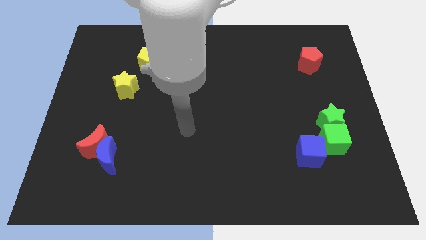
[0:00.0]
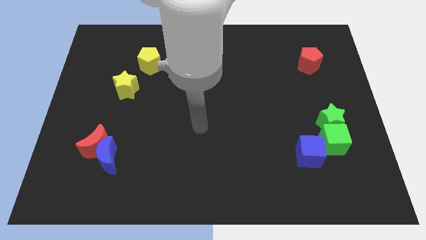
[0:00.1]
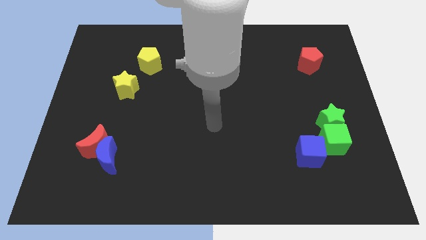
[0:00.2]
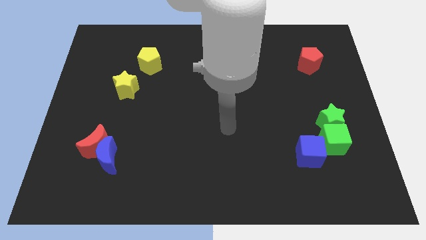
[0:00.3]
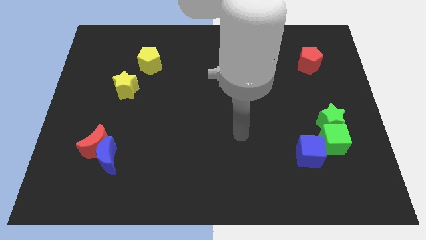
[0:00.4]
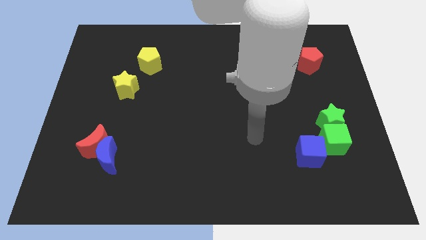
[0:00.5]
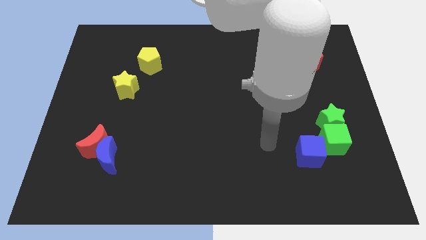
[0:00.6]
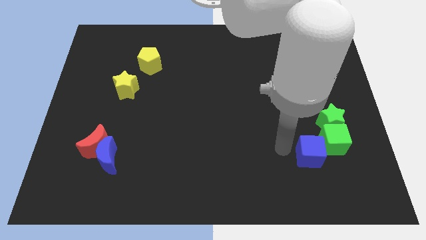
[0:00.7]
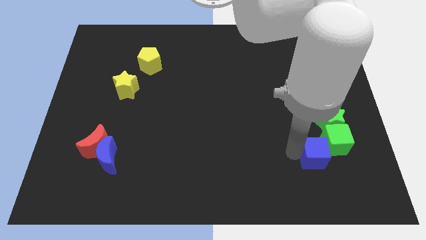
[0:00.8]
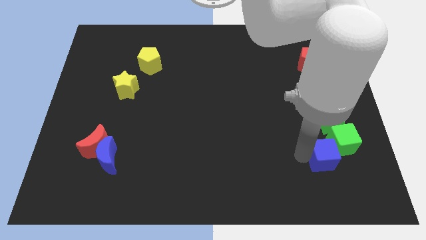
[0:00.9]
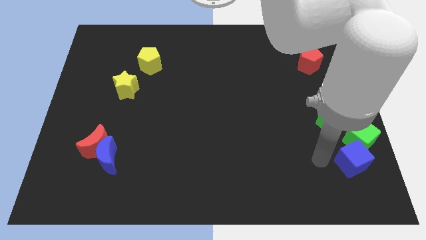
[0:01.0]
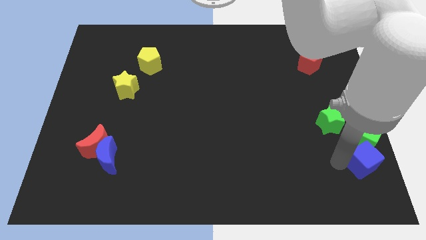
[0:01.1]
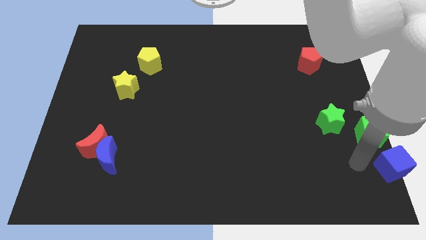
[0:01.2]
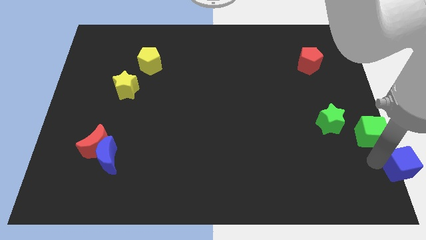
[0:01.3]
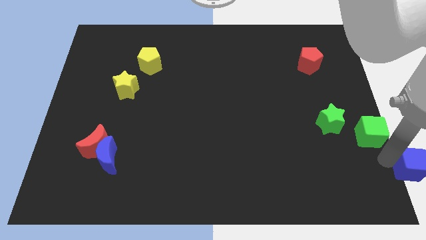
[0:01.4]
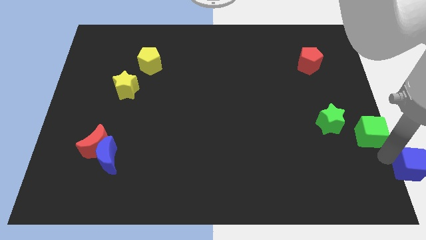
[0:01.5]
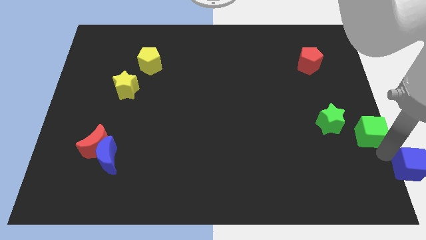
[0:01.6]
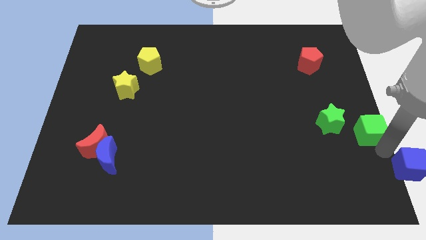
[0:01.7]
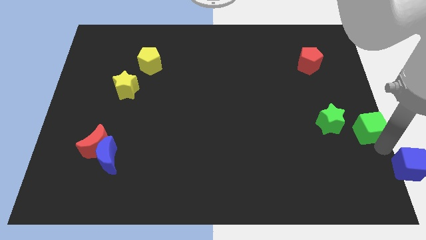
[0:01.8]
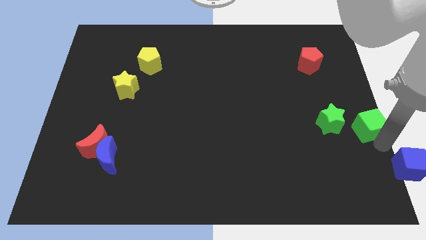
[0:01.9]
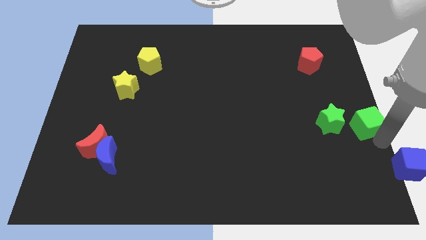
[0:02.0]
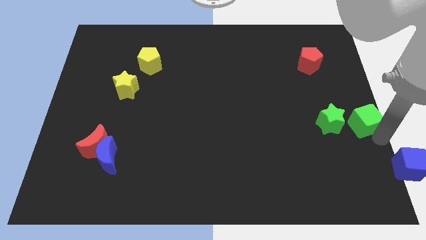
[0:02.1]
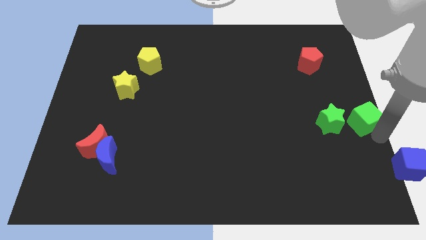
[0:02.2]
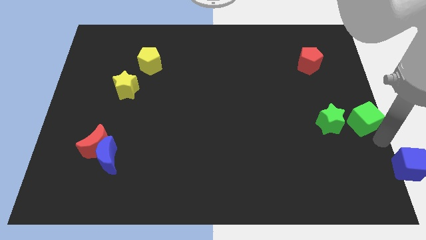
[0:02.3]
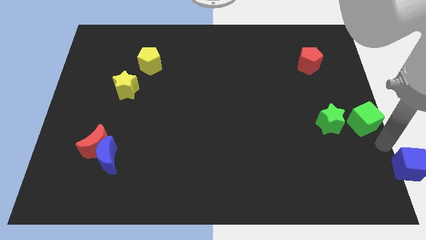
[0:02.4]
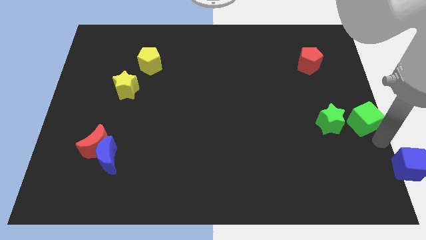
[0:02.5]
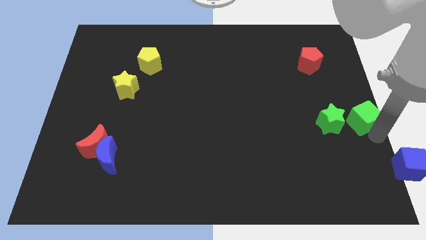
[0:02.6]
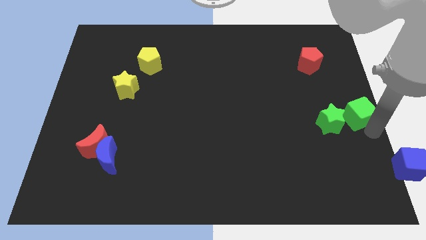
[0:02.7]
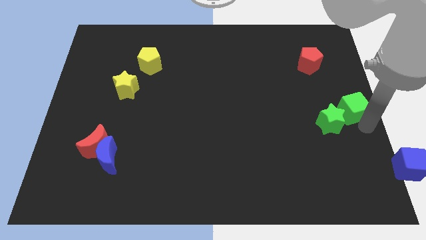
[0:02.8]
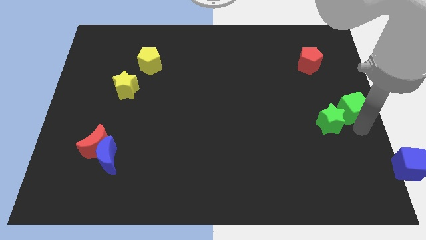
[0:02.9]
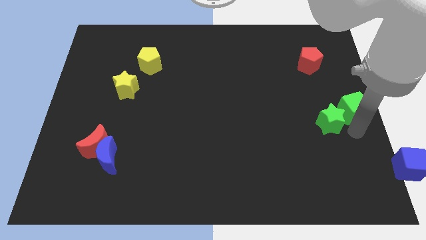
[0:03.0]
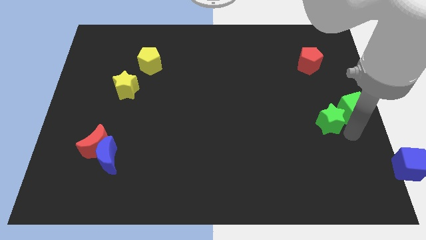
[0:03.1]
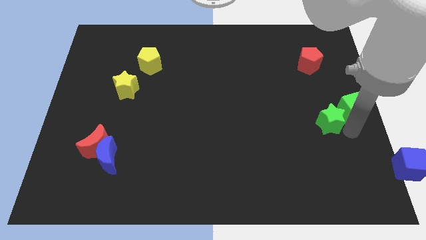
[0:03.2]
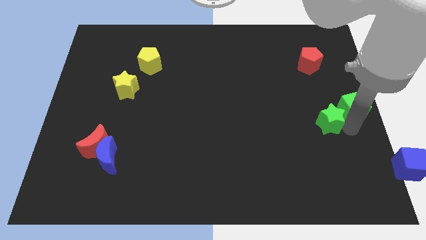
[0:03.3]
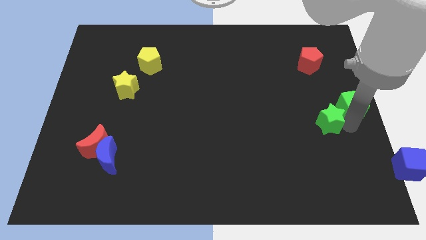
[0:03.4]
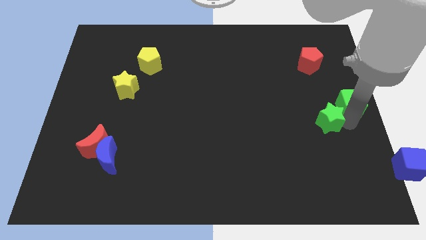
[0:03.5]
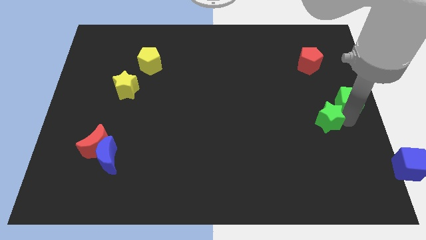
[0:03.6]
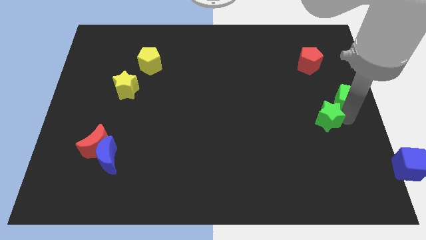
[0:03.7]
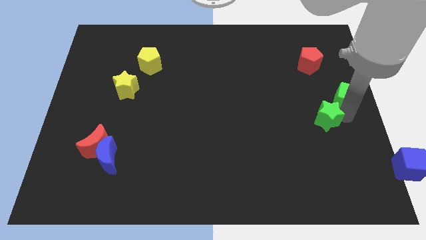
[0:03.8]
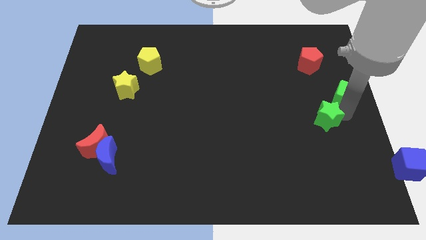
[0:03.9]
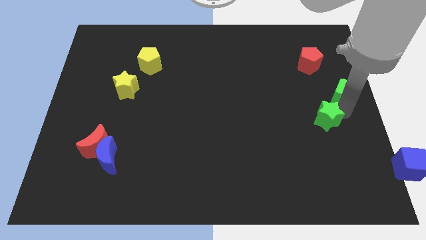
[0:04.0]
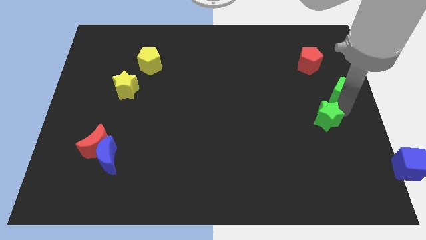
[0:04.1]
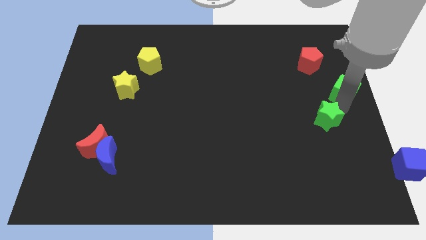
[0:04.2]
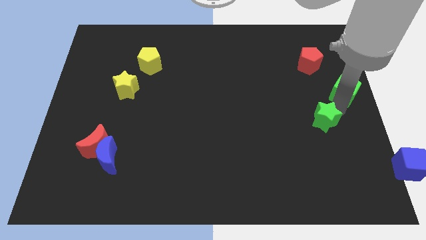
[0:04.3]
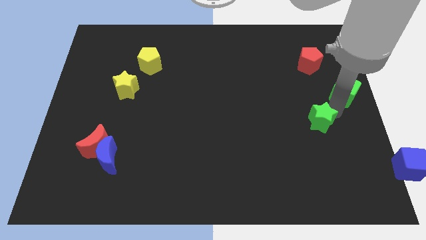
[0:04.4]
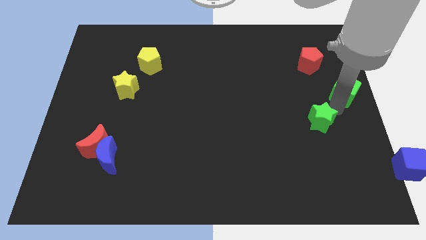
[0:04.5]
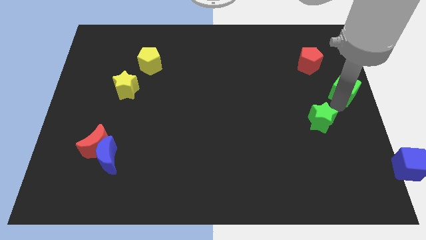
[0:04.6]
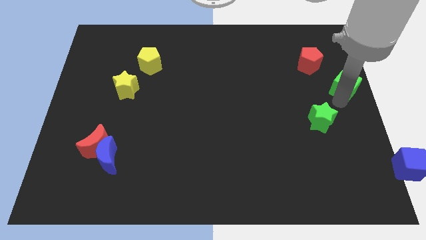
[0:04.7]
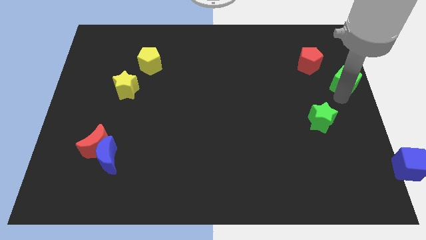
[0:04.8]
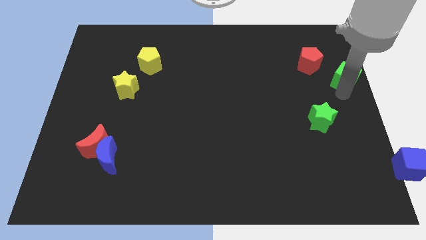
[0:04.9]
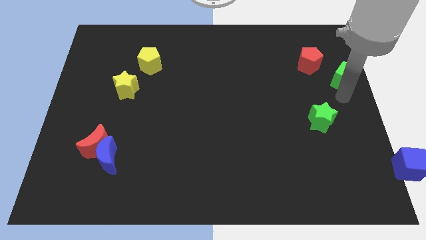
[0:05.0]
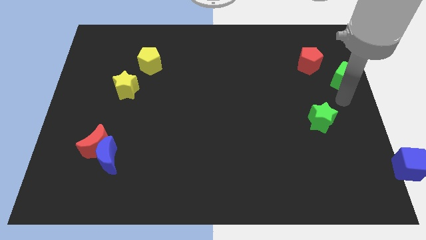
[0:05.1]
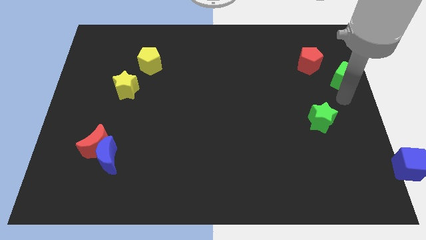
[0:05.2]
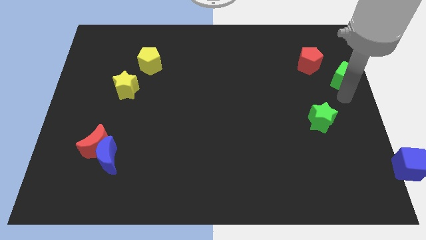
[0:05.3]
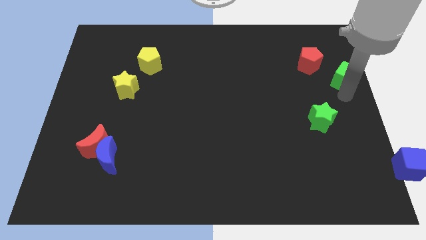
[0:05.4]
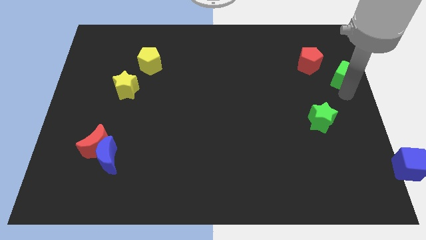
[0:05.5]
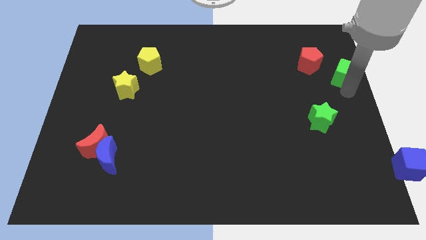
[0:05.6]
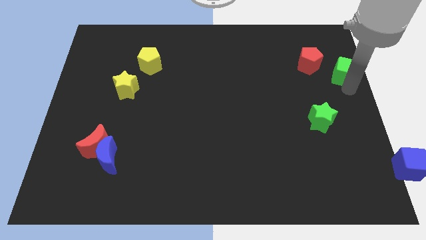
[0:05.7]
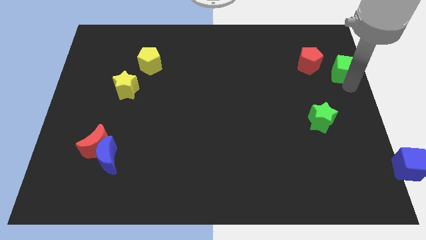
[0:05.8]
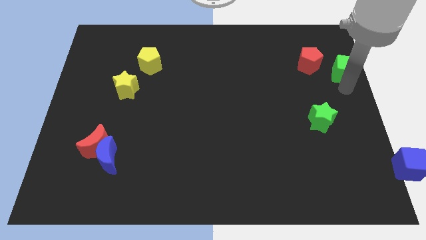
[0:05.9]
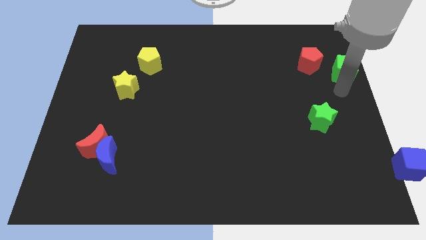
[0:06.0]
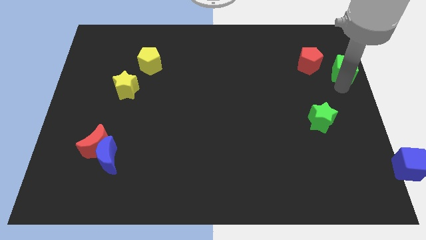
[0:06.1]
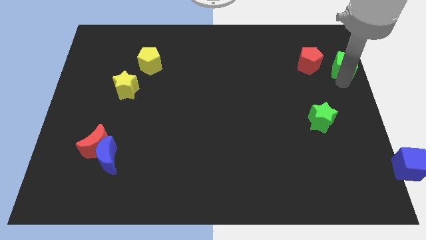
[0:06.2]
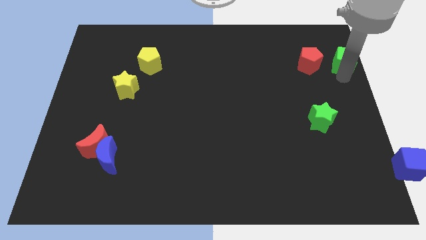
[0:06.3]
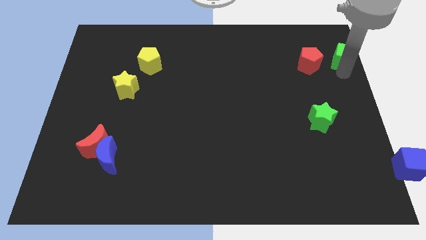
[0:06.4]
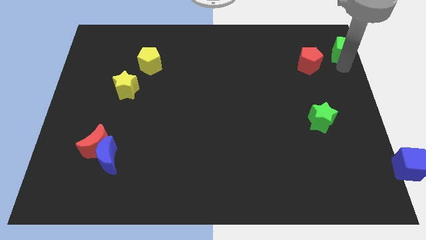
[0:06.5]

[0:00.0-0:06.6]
slide the green cube to the top right corner

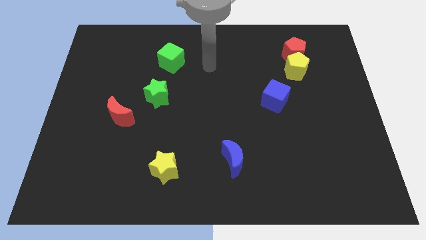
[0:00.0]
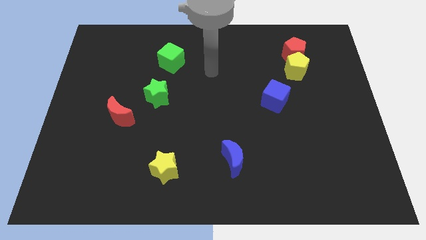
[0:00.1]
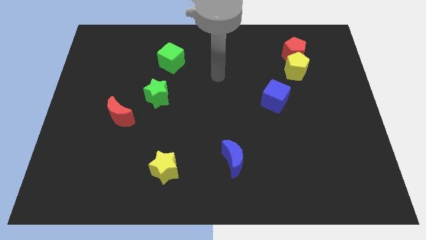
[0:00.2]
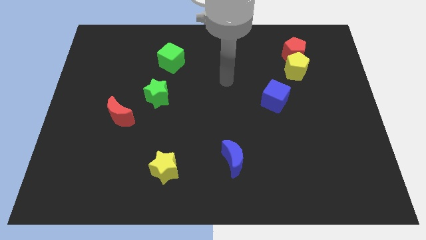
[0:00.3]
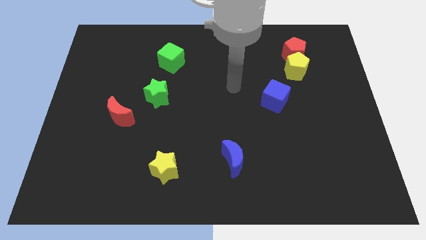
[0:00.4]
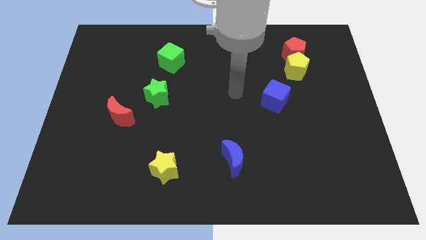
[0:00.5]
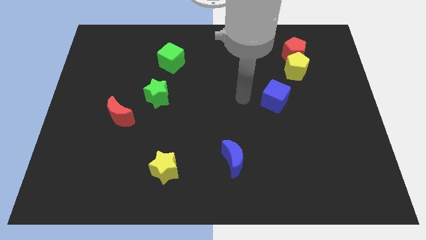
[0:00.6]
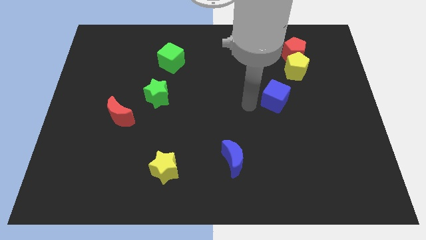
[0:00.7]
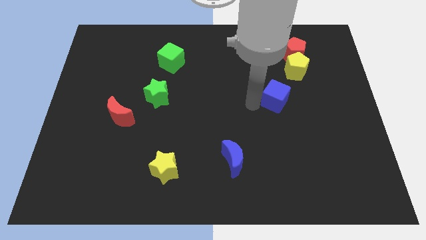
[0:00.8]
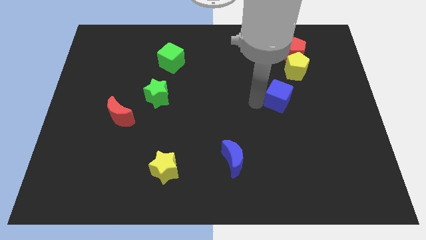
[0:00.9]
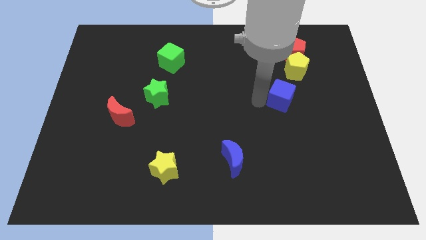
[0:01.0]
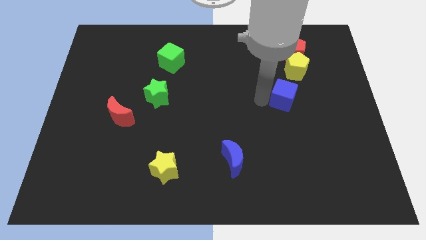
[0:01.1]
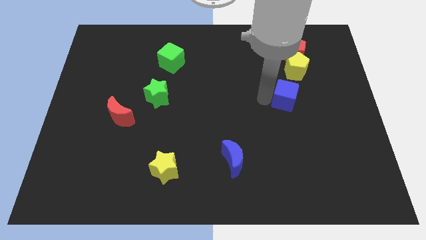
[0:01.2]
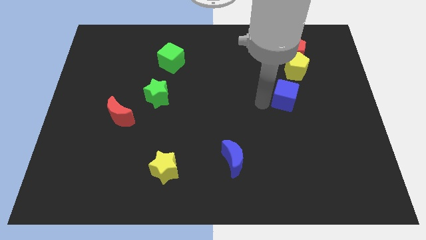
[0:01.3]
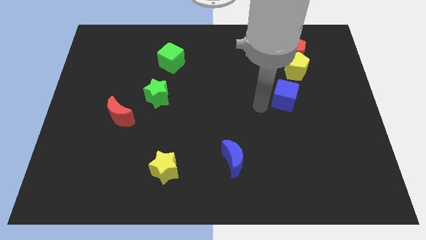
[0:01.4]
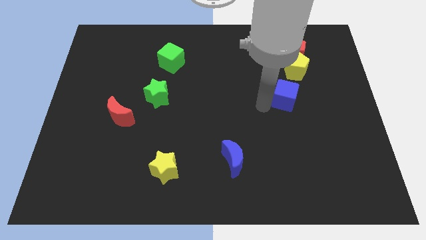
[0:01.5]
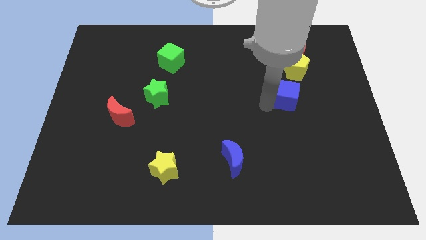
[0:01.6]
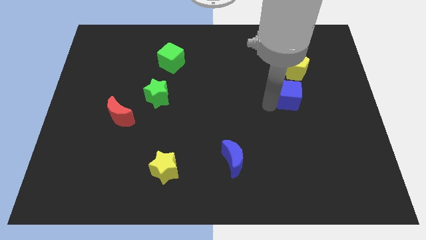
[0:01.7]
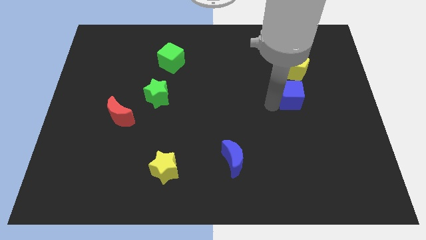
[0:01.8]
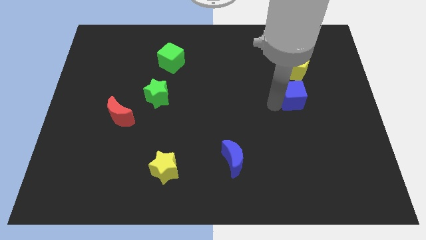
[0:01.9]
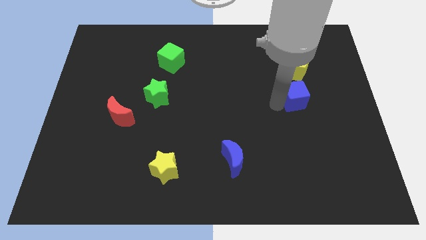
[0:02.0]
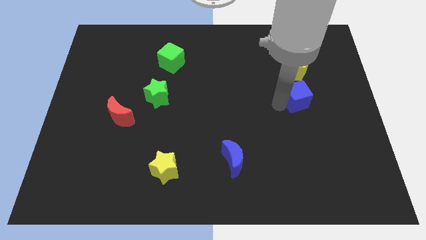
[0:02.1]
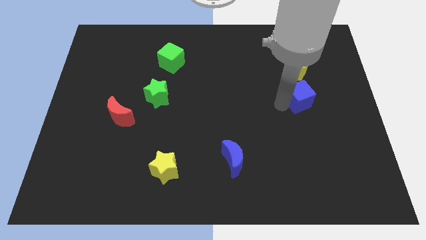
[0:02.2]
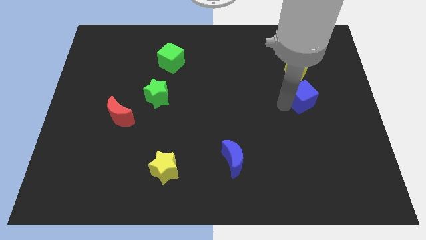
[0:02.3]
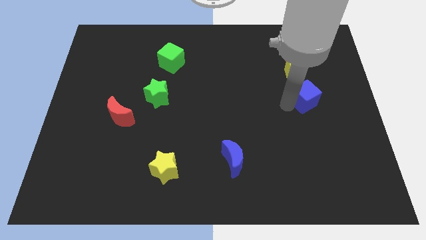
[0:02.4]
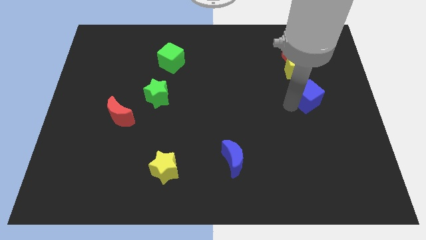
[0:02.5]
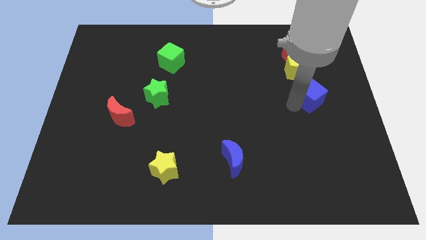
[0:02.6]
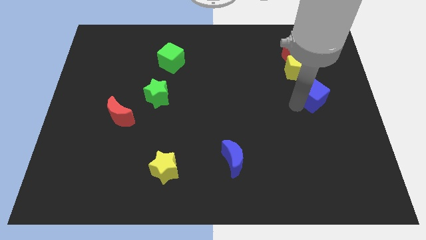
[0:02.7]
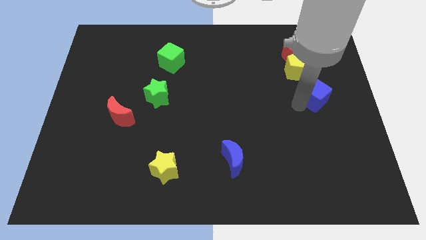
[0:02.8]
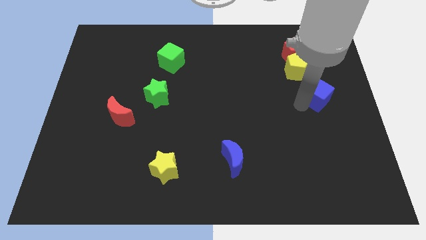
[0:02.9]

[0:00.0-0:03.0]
slide the blue cube to the right side
